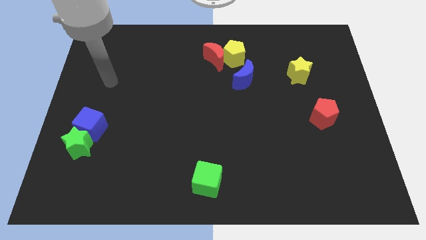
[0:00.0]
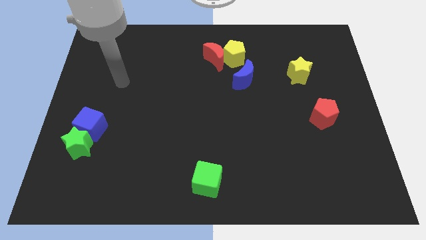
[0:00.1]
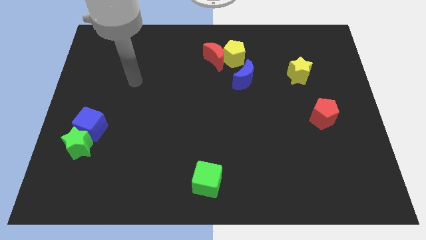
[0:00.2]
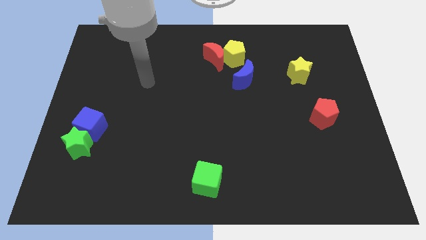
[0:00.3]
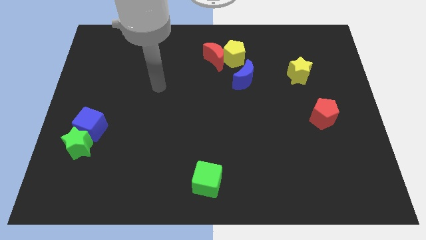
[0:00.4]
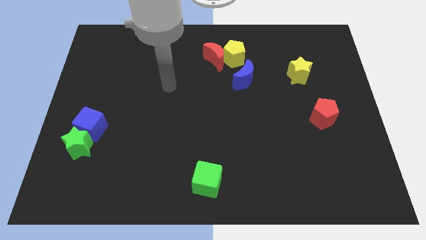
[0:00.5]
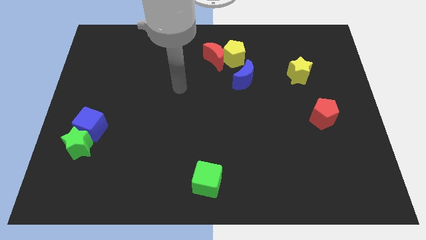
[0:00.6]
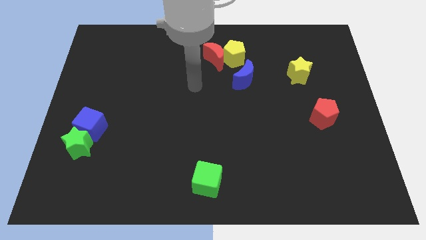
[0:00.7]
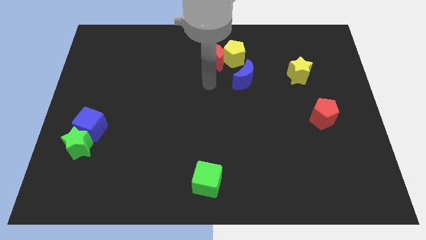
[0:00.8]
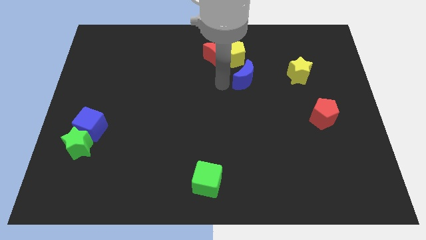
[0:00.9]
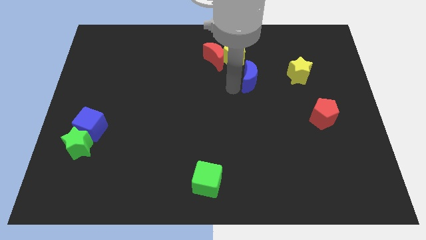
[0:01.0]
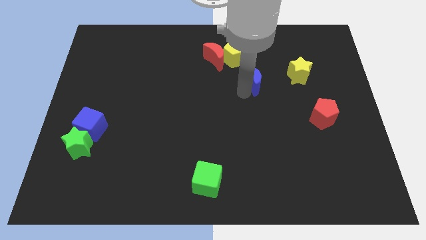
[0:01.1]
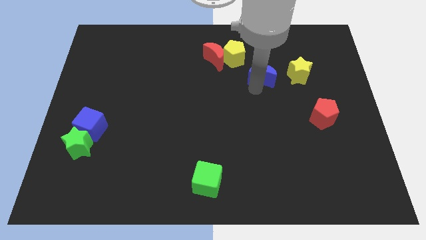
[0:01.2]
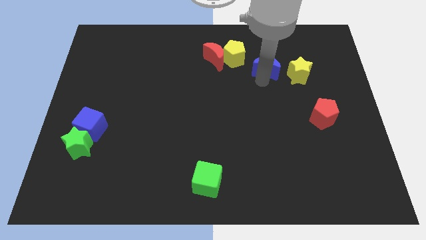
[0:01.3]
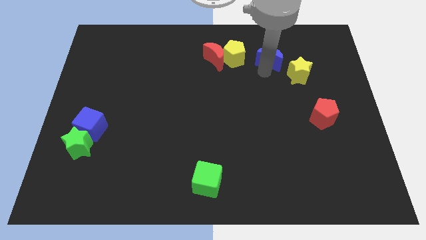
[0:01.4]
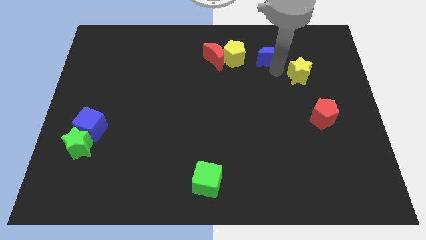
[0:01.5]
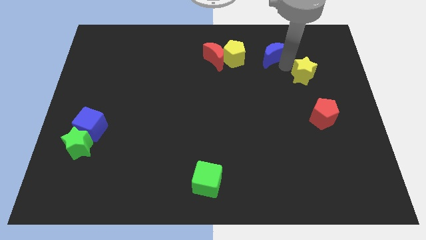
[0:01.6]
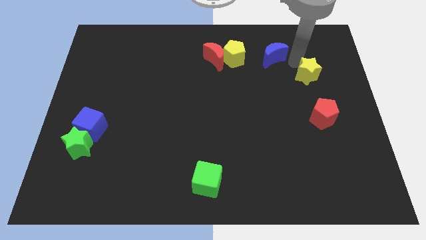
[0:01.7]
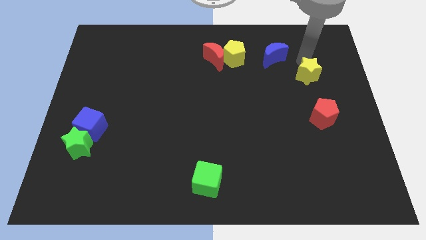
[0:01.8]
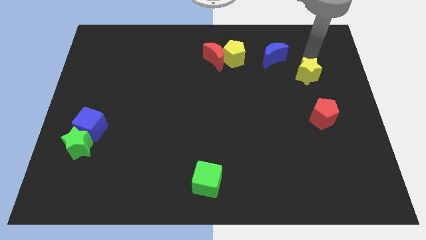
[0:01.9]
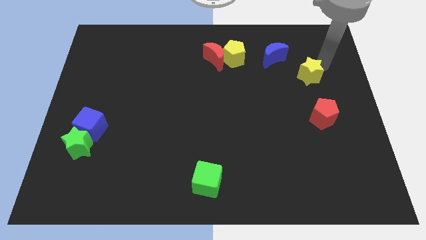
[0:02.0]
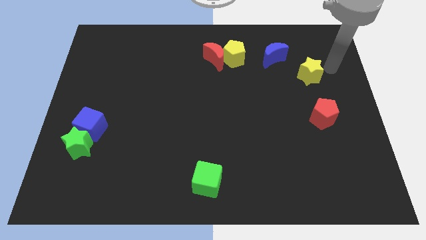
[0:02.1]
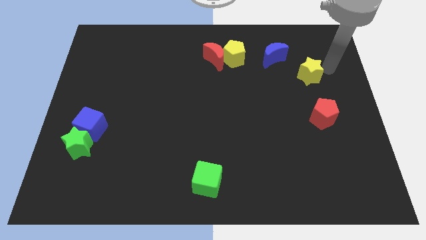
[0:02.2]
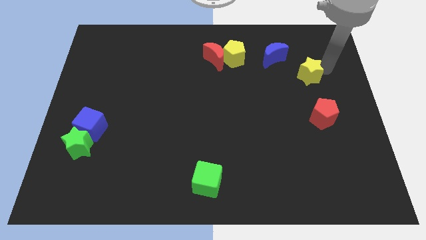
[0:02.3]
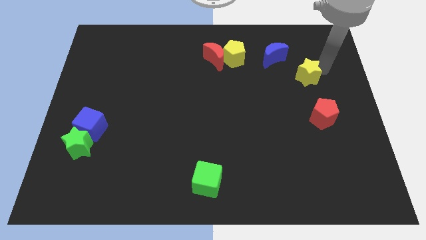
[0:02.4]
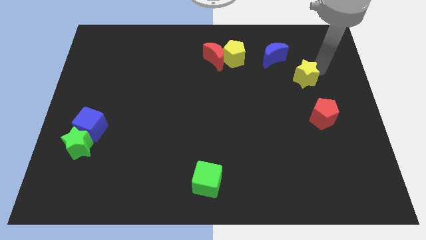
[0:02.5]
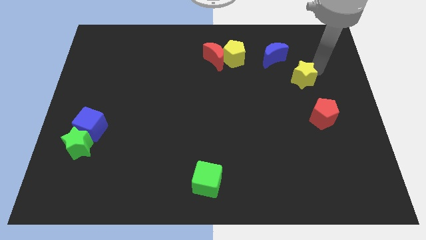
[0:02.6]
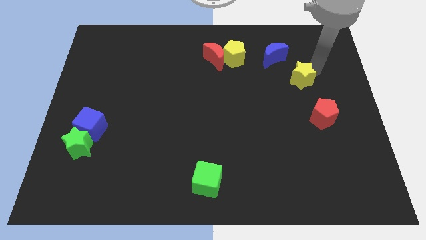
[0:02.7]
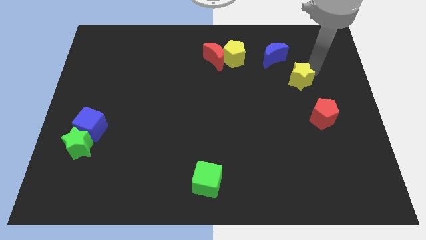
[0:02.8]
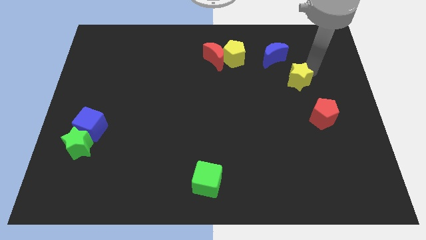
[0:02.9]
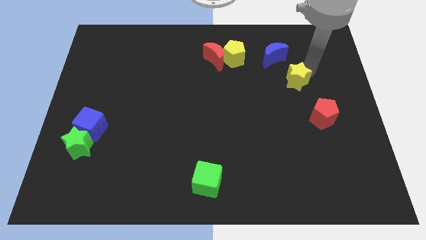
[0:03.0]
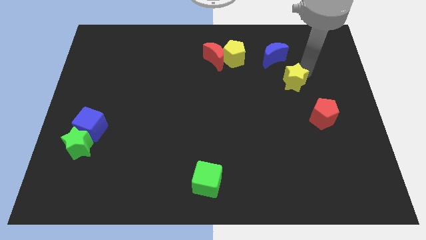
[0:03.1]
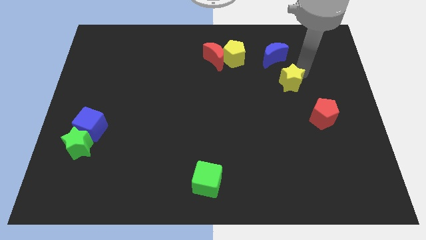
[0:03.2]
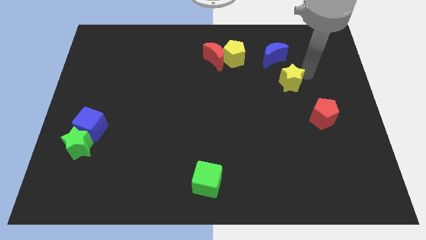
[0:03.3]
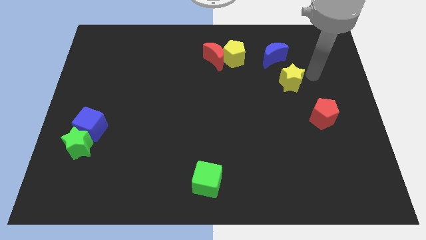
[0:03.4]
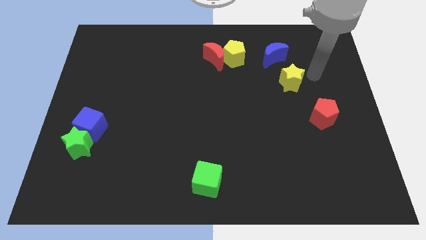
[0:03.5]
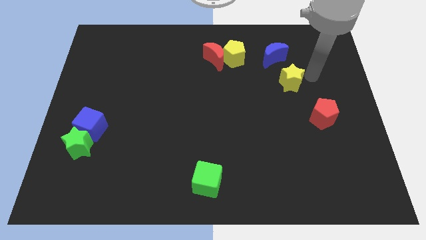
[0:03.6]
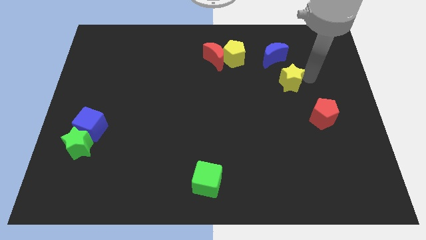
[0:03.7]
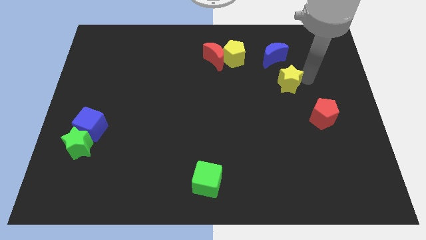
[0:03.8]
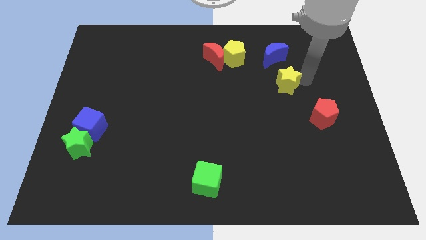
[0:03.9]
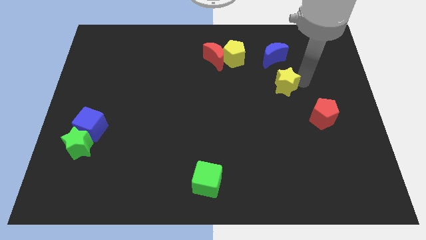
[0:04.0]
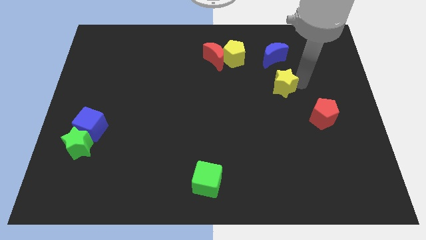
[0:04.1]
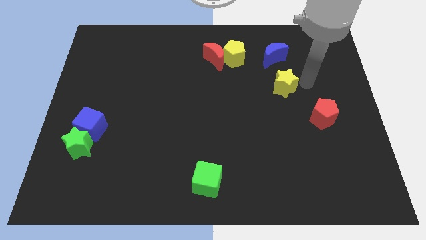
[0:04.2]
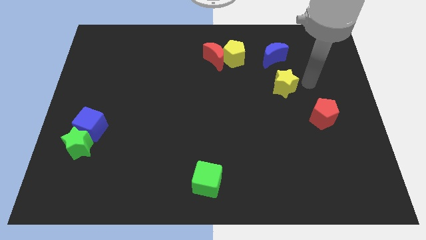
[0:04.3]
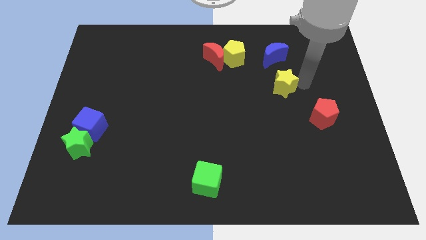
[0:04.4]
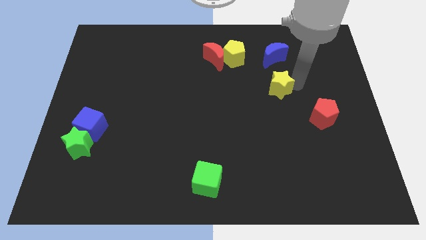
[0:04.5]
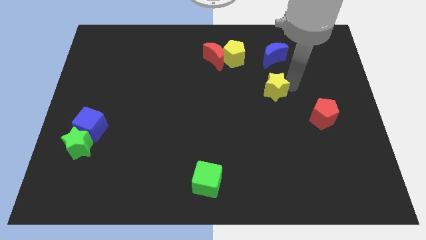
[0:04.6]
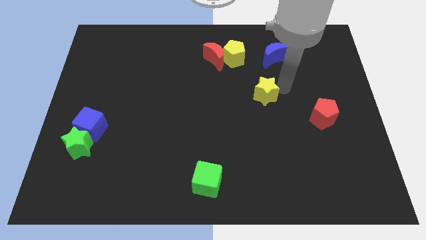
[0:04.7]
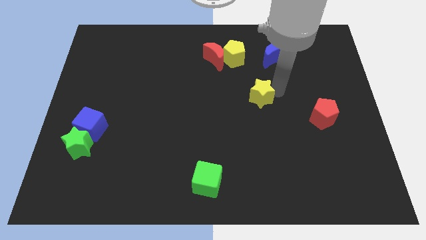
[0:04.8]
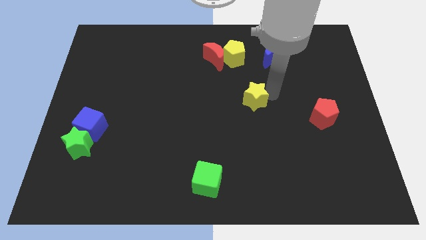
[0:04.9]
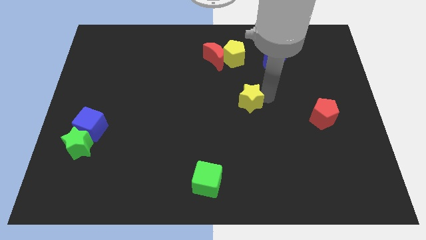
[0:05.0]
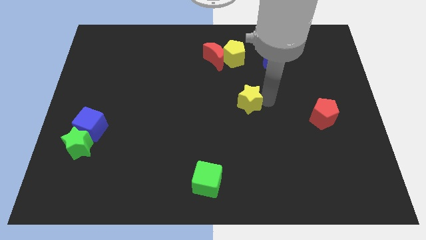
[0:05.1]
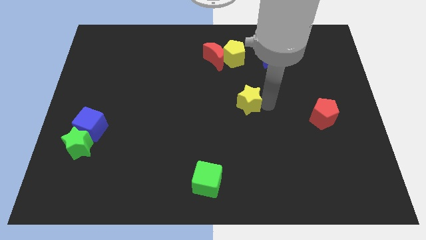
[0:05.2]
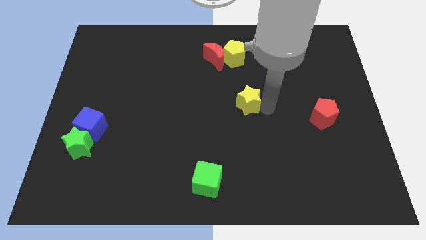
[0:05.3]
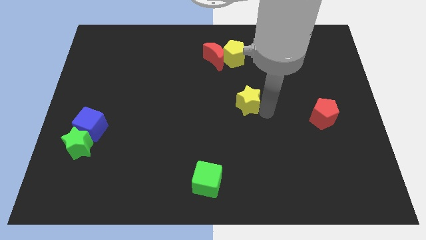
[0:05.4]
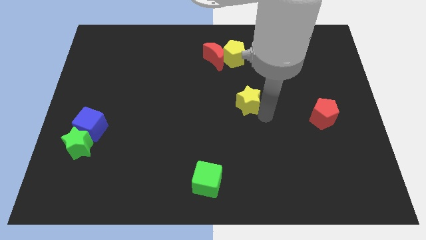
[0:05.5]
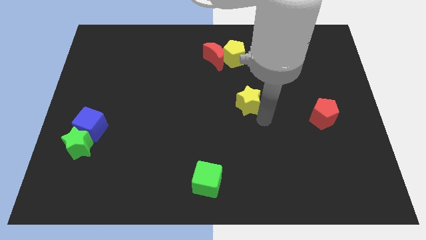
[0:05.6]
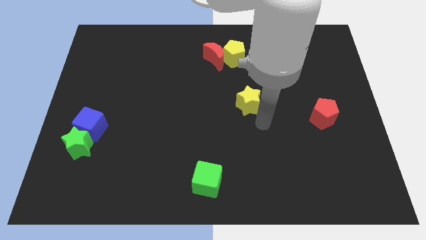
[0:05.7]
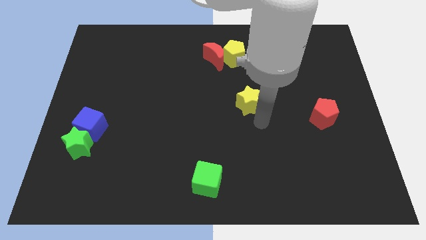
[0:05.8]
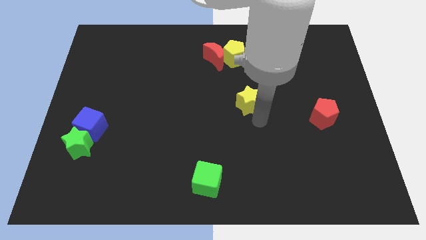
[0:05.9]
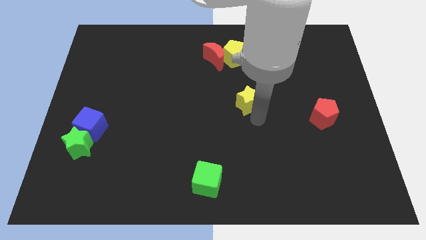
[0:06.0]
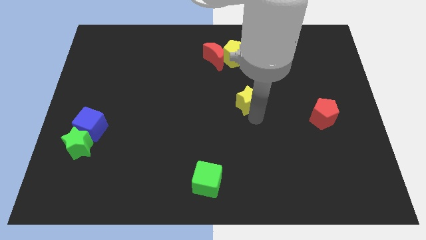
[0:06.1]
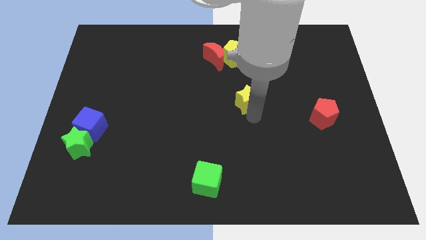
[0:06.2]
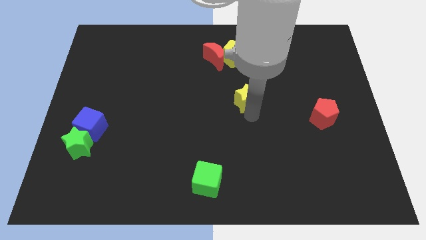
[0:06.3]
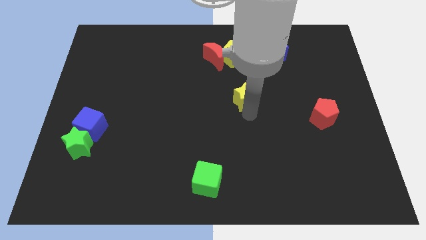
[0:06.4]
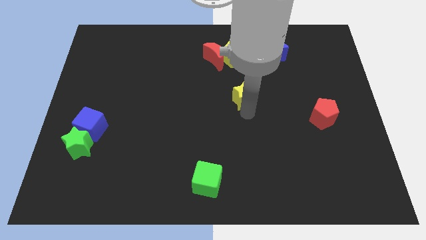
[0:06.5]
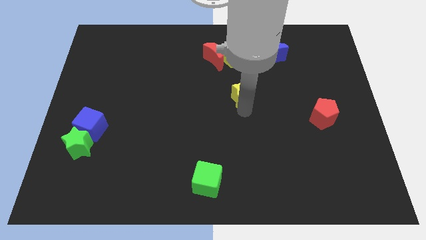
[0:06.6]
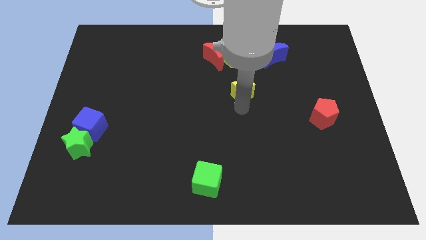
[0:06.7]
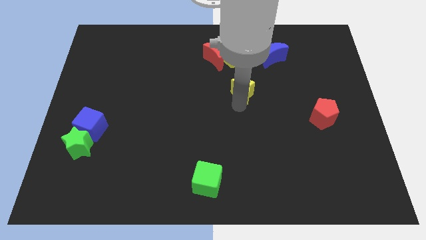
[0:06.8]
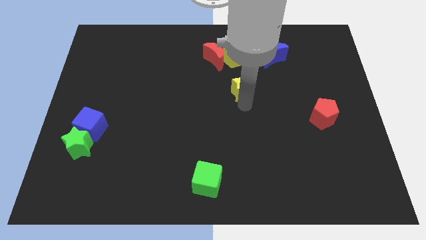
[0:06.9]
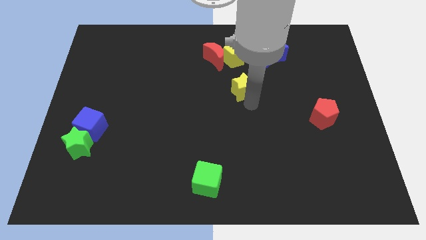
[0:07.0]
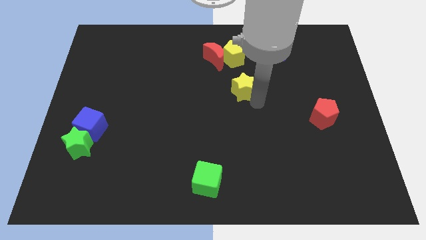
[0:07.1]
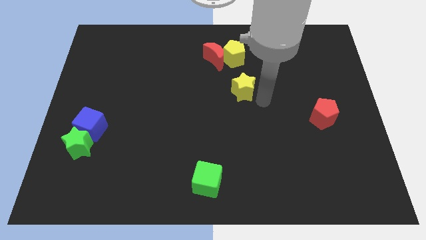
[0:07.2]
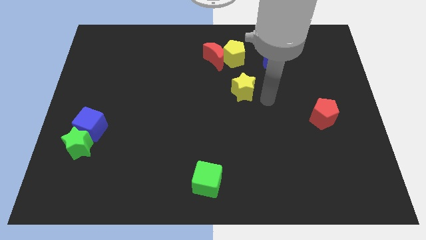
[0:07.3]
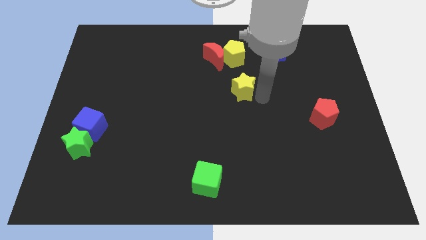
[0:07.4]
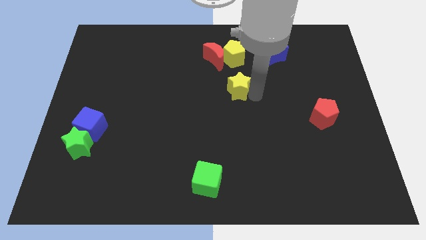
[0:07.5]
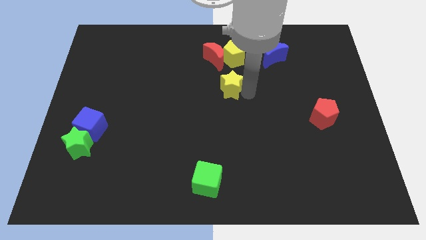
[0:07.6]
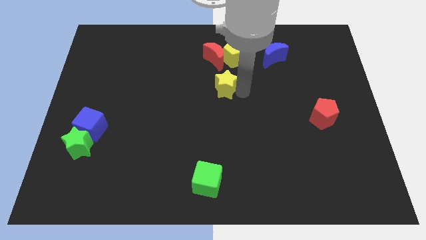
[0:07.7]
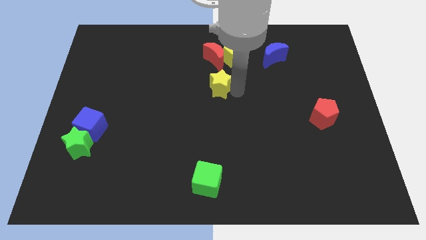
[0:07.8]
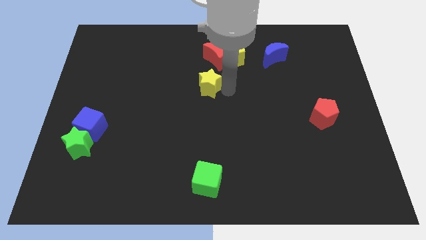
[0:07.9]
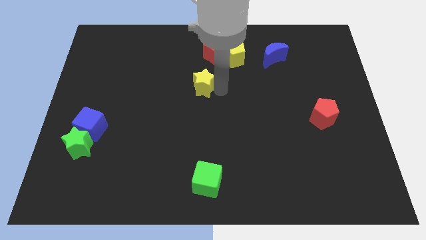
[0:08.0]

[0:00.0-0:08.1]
slide the yellow star to the bottom left of the red moon
